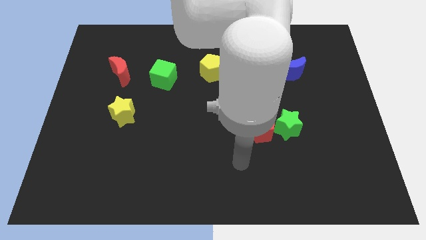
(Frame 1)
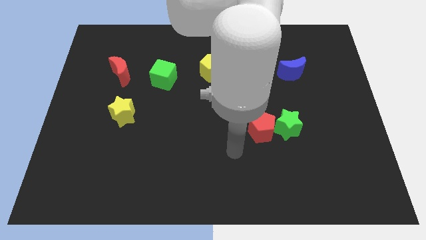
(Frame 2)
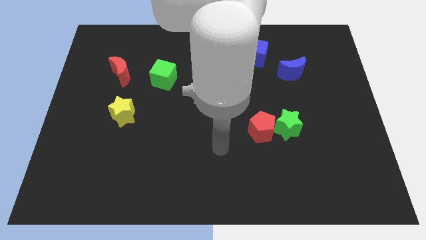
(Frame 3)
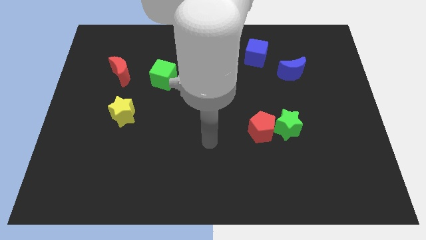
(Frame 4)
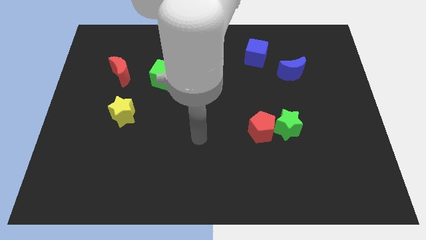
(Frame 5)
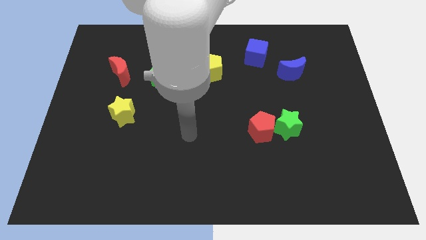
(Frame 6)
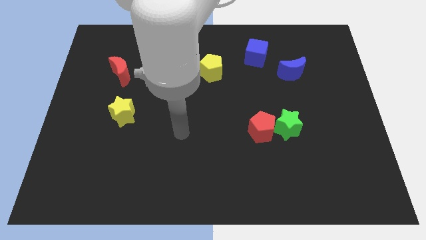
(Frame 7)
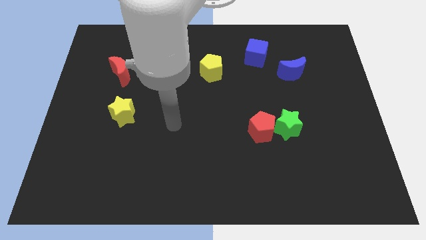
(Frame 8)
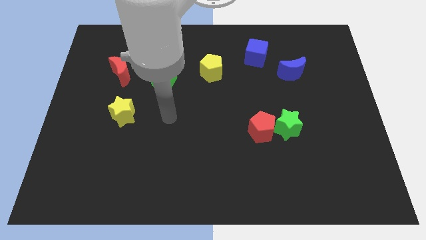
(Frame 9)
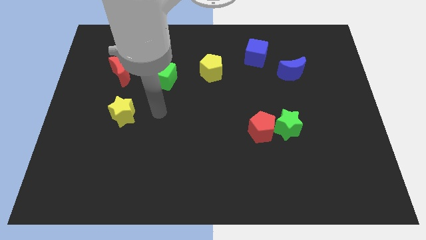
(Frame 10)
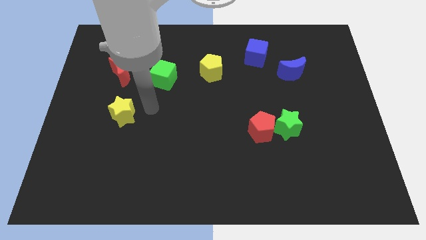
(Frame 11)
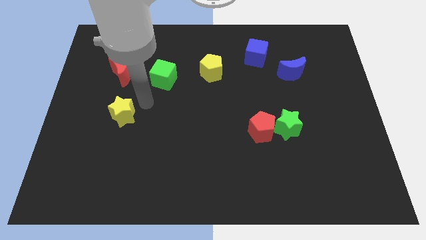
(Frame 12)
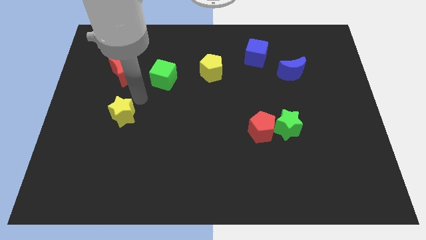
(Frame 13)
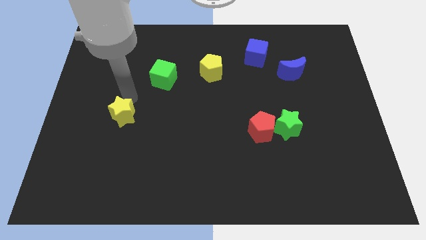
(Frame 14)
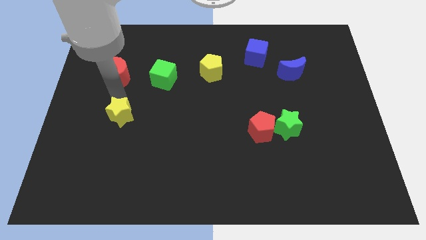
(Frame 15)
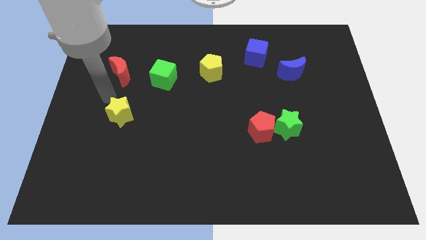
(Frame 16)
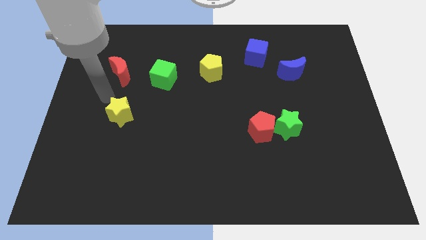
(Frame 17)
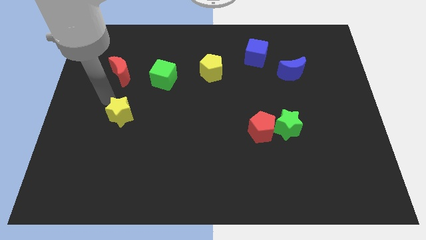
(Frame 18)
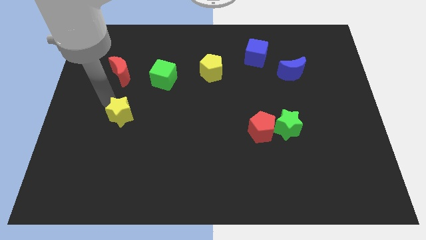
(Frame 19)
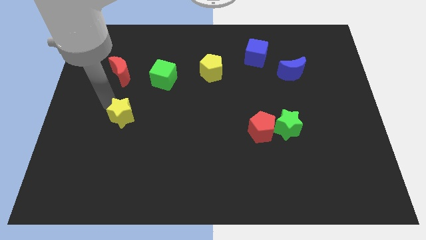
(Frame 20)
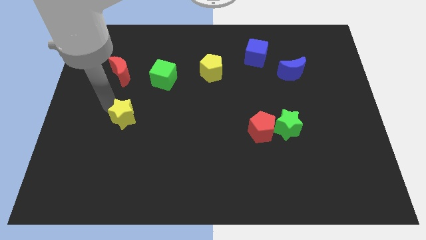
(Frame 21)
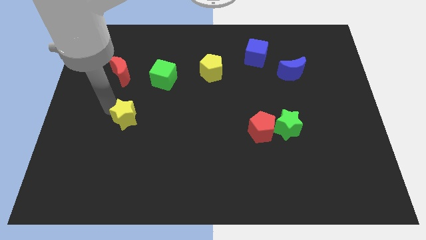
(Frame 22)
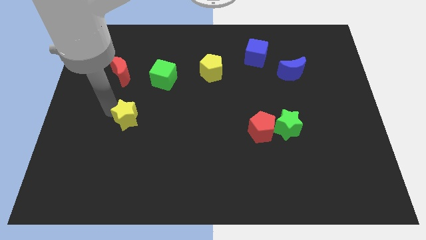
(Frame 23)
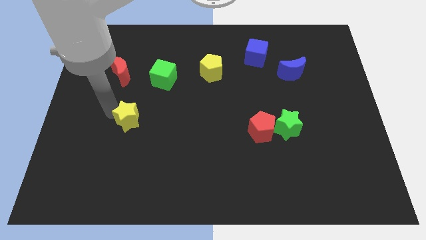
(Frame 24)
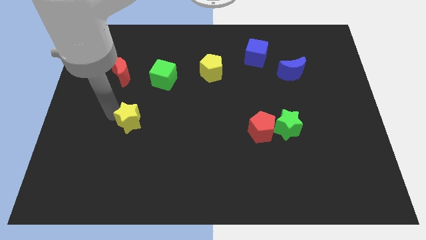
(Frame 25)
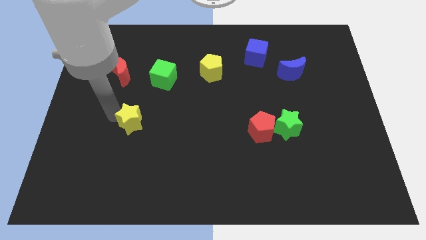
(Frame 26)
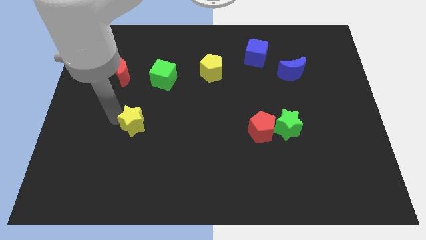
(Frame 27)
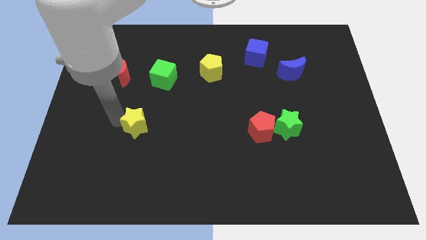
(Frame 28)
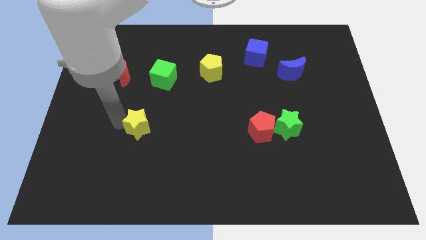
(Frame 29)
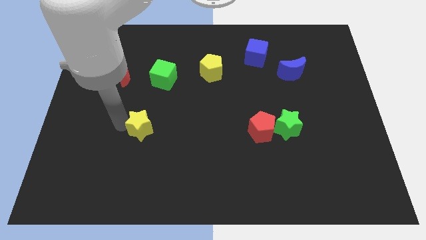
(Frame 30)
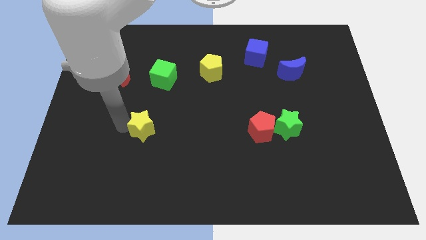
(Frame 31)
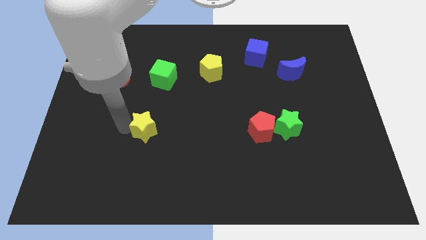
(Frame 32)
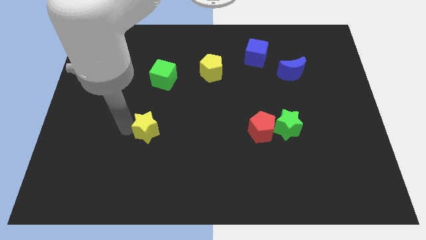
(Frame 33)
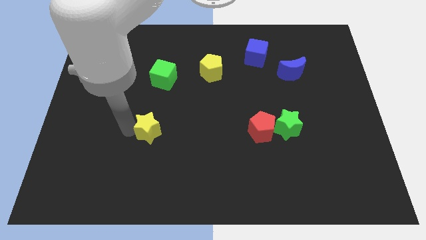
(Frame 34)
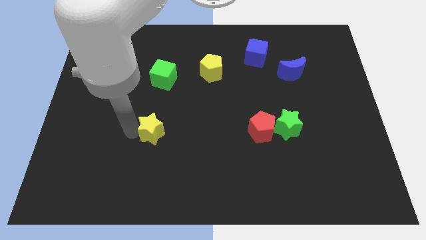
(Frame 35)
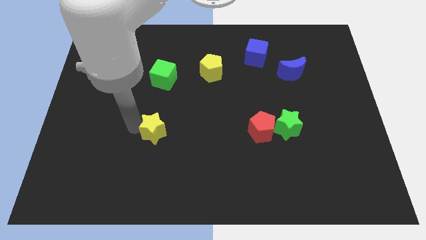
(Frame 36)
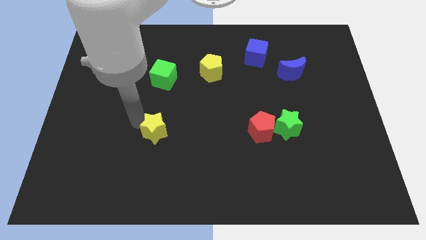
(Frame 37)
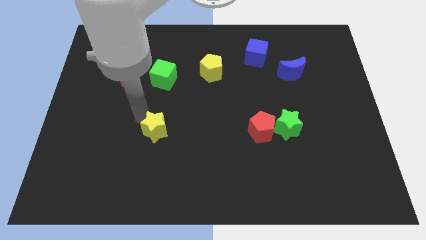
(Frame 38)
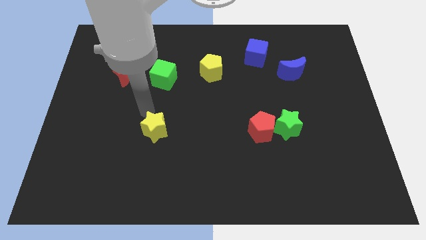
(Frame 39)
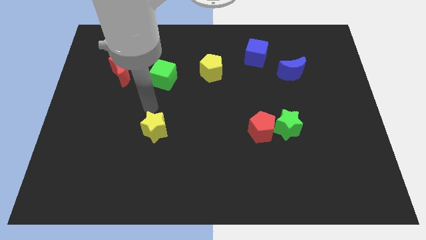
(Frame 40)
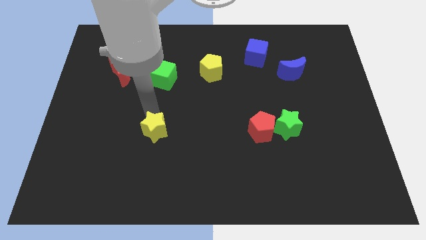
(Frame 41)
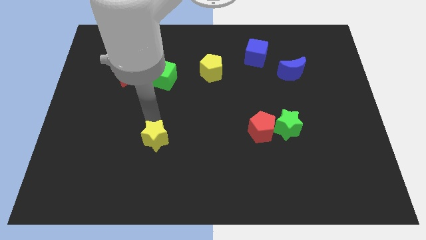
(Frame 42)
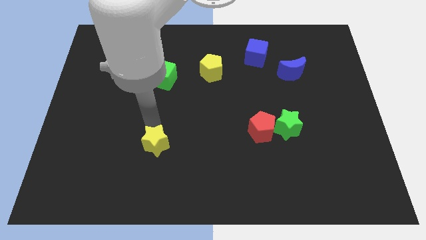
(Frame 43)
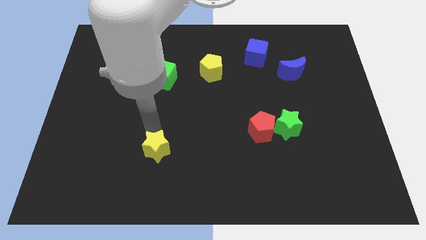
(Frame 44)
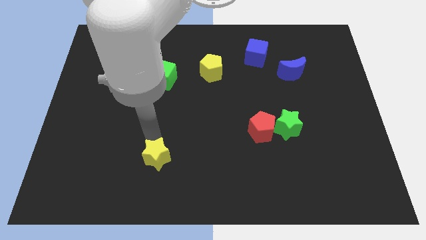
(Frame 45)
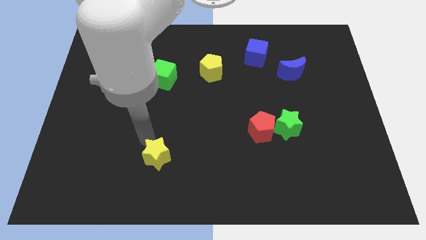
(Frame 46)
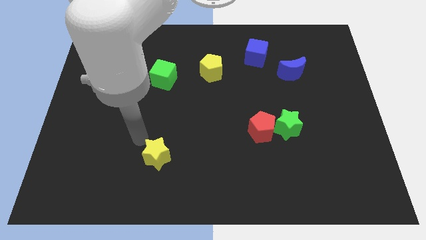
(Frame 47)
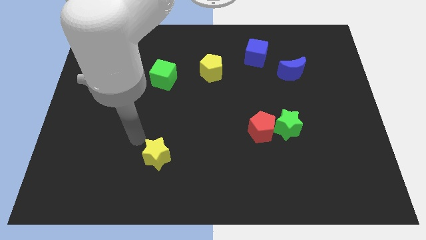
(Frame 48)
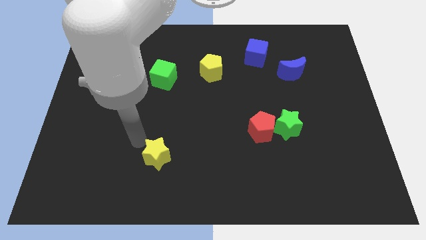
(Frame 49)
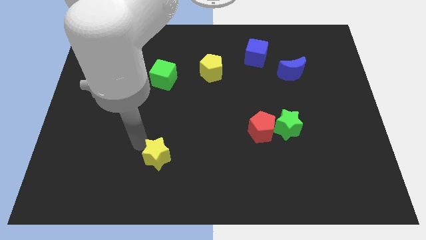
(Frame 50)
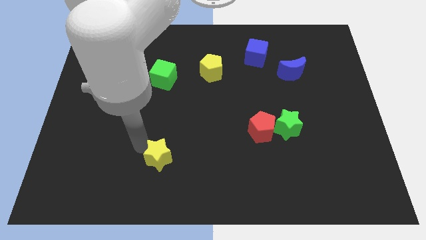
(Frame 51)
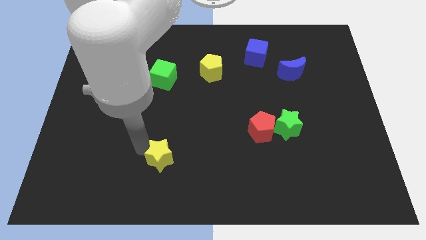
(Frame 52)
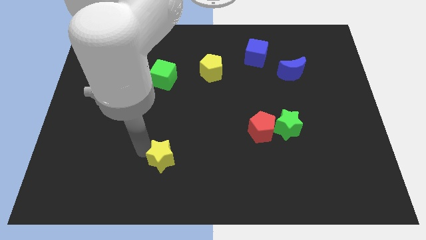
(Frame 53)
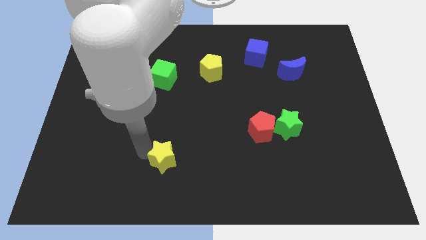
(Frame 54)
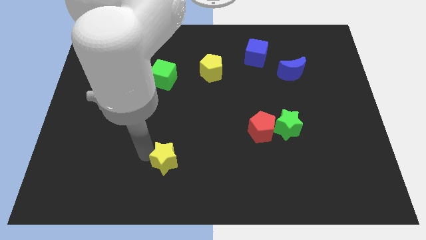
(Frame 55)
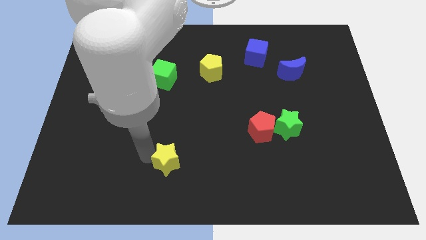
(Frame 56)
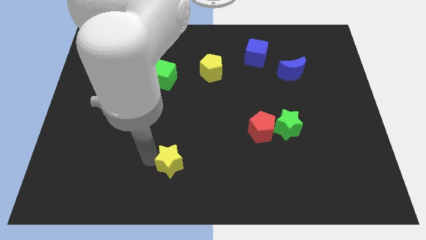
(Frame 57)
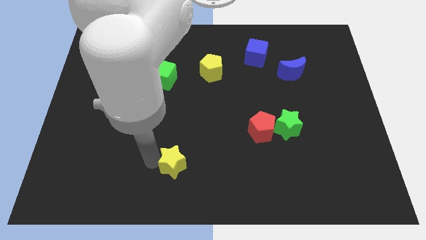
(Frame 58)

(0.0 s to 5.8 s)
move the yellow star to the bottom

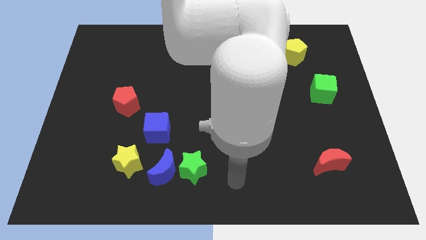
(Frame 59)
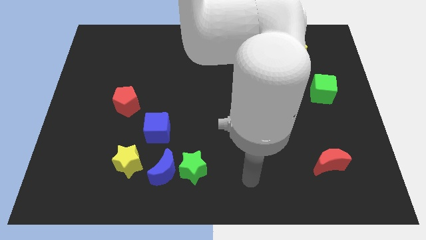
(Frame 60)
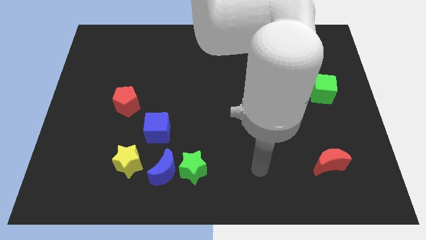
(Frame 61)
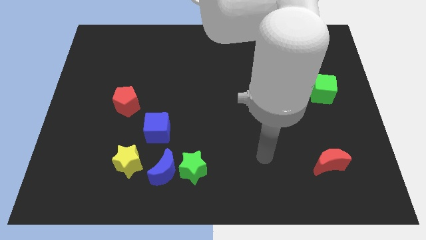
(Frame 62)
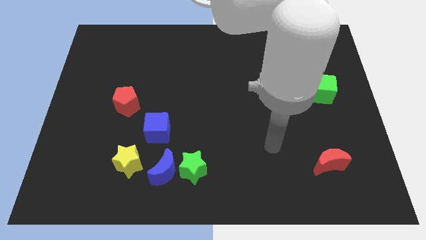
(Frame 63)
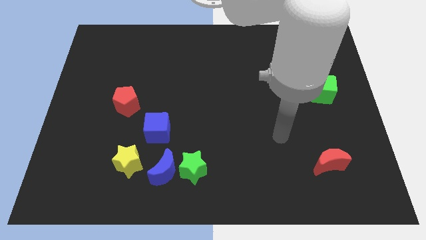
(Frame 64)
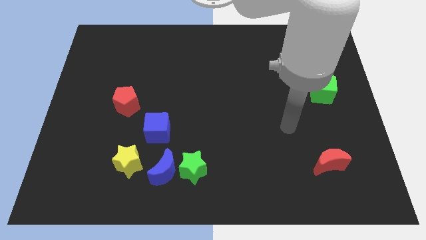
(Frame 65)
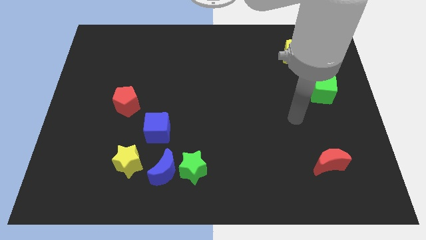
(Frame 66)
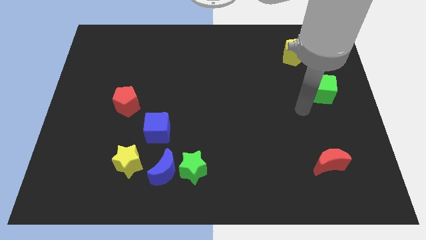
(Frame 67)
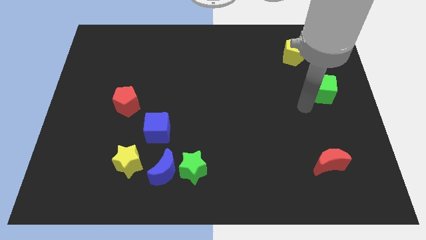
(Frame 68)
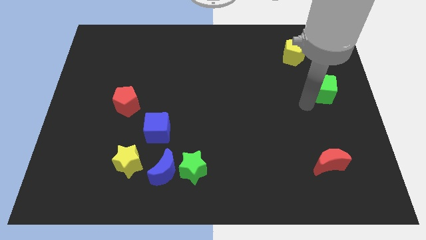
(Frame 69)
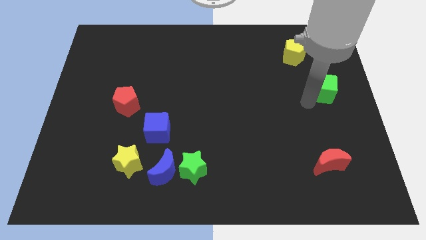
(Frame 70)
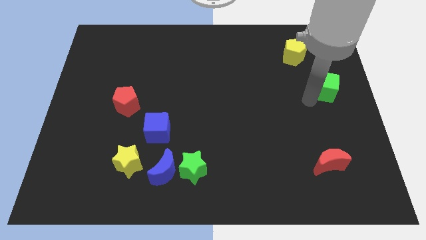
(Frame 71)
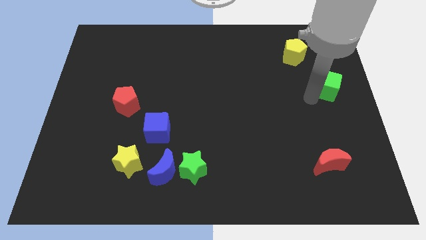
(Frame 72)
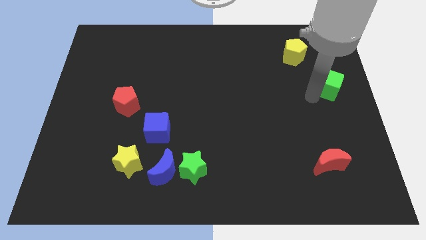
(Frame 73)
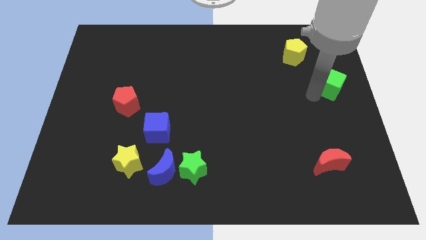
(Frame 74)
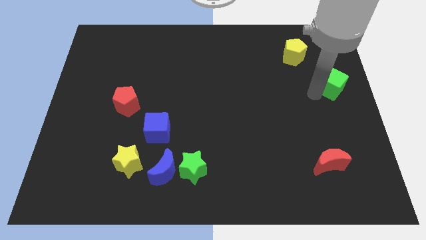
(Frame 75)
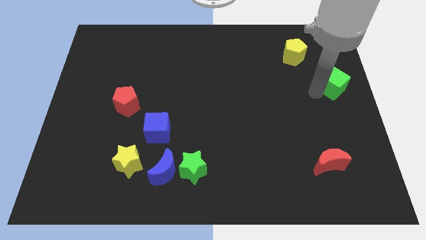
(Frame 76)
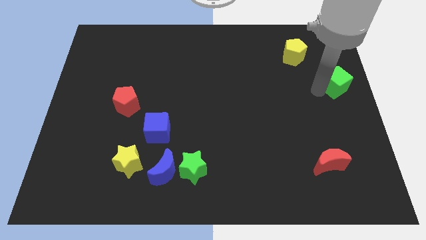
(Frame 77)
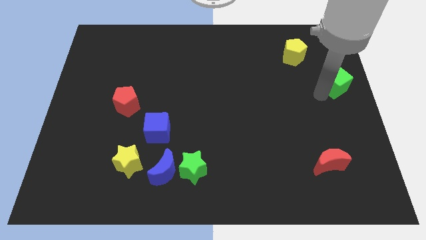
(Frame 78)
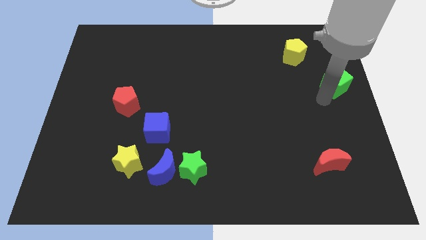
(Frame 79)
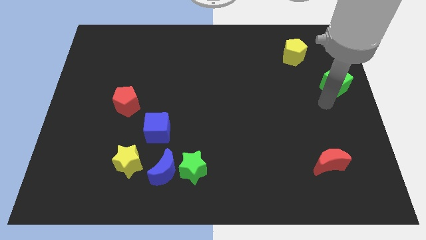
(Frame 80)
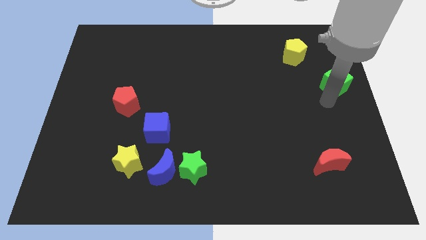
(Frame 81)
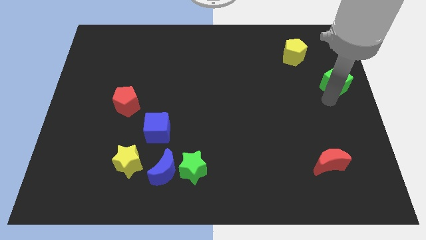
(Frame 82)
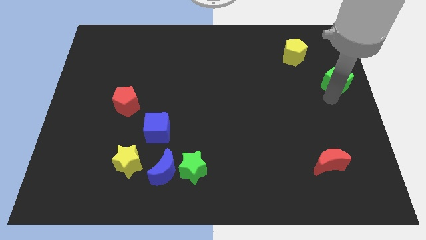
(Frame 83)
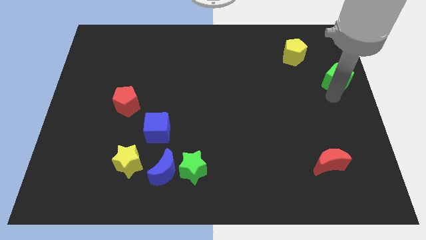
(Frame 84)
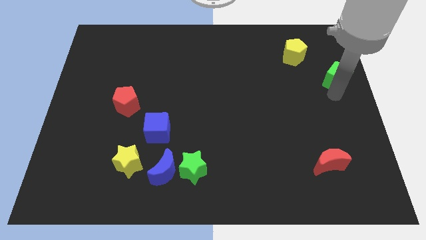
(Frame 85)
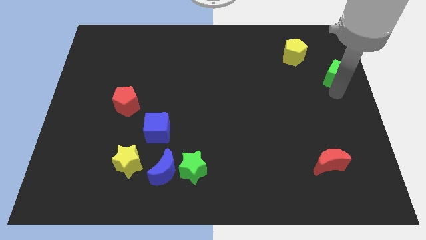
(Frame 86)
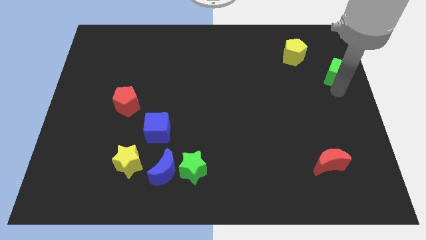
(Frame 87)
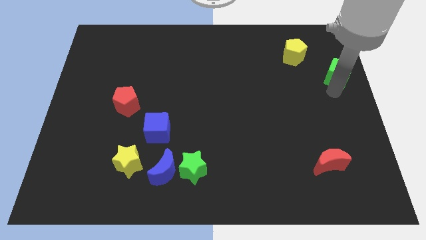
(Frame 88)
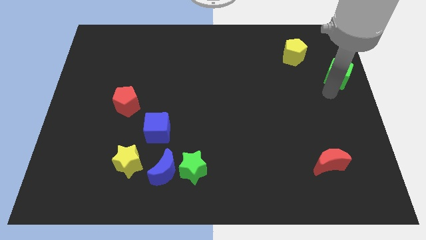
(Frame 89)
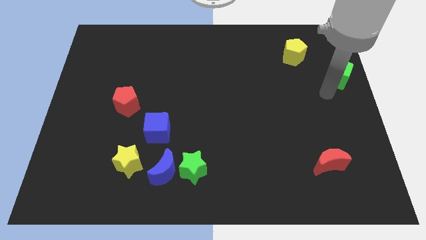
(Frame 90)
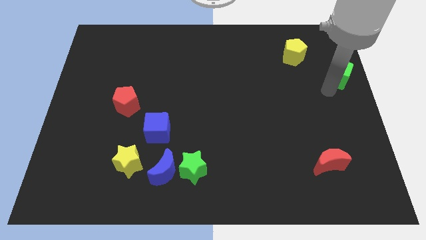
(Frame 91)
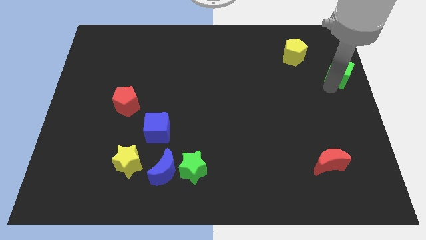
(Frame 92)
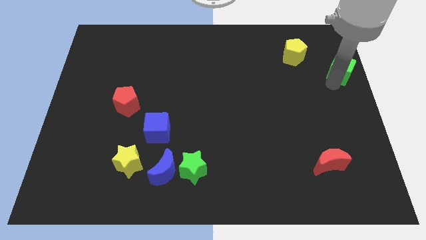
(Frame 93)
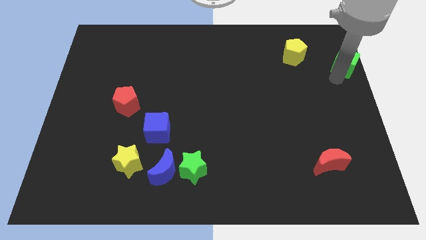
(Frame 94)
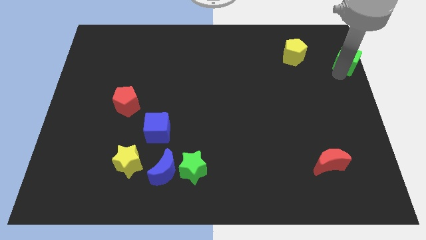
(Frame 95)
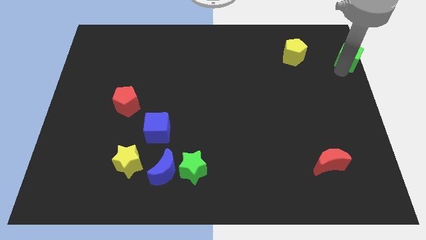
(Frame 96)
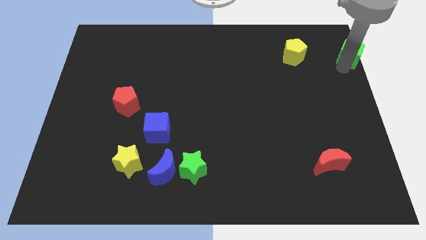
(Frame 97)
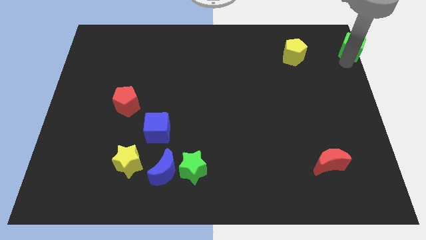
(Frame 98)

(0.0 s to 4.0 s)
slide the green cube to the top right of the board
